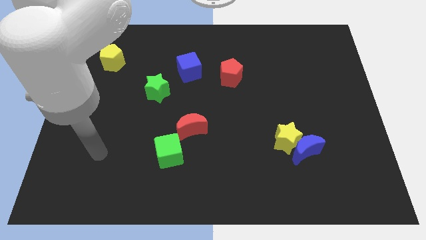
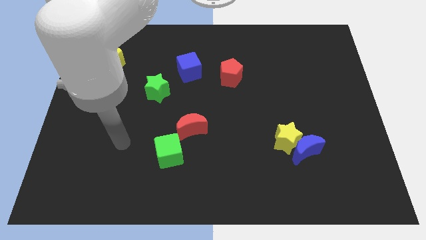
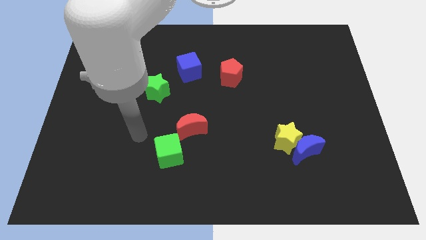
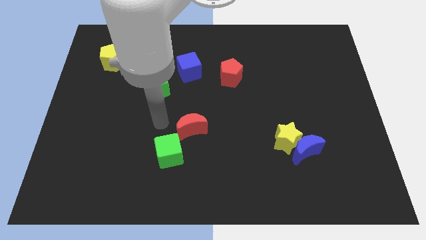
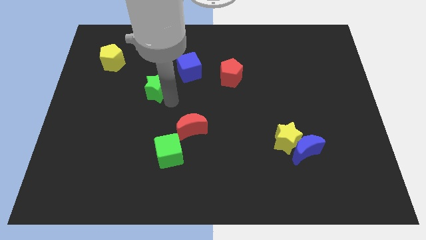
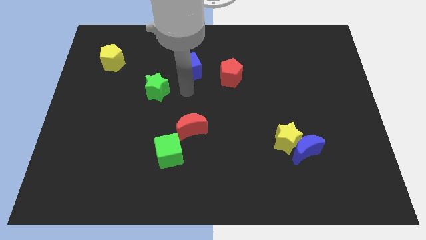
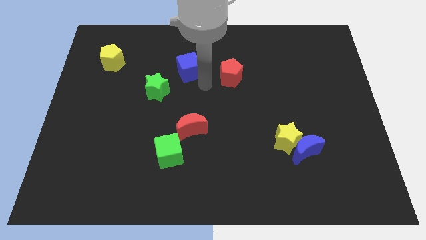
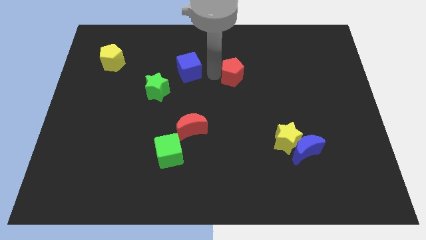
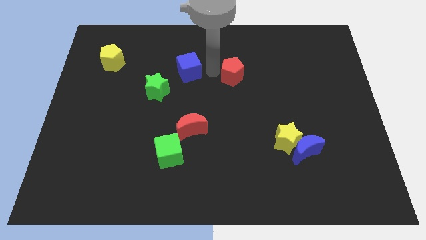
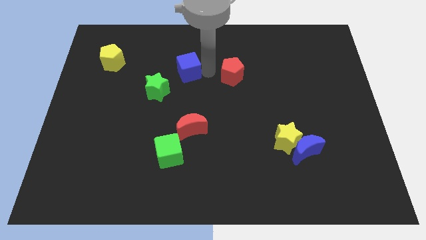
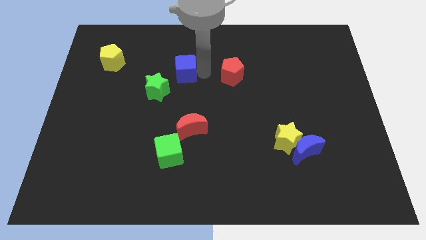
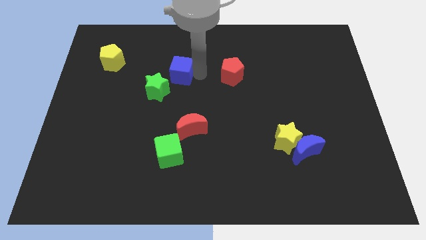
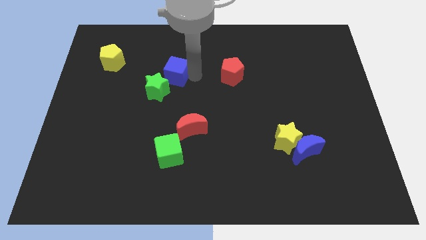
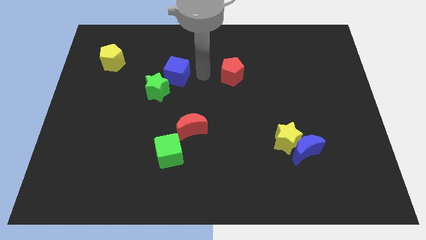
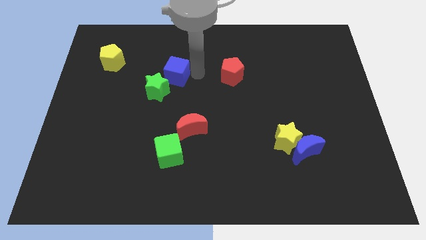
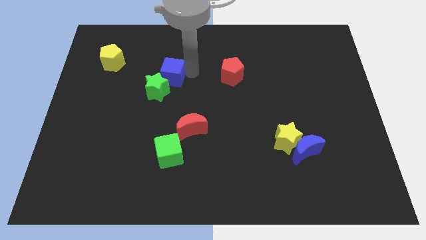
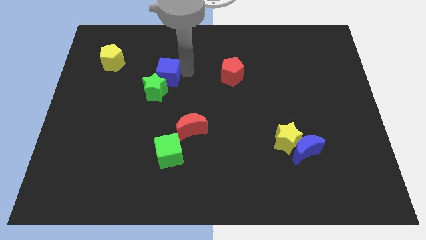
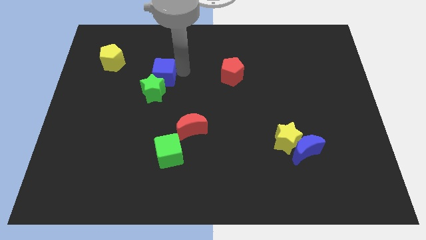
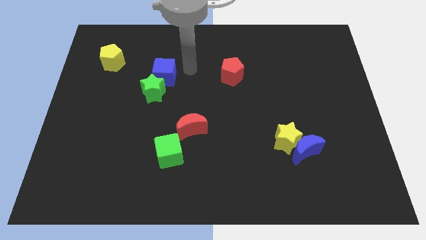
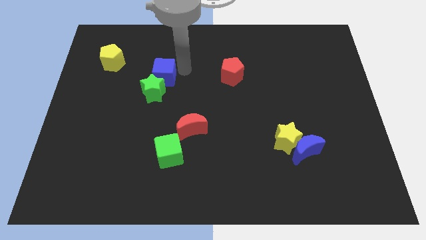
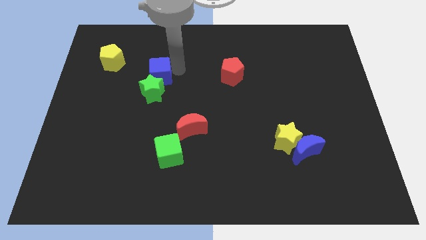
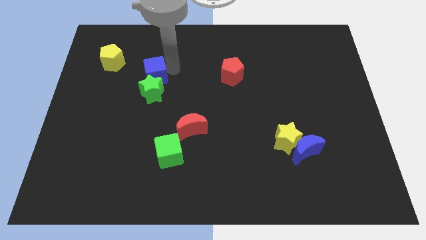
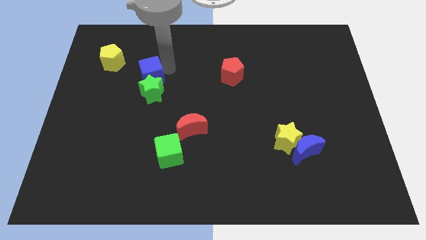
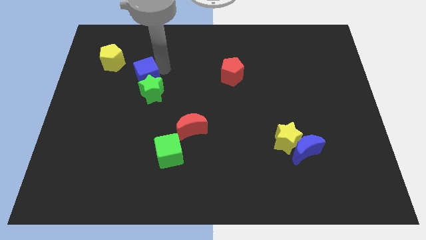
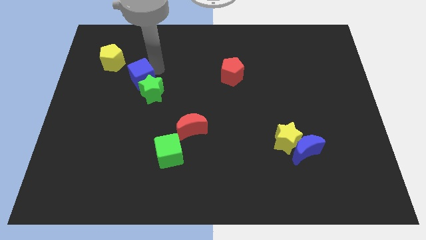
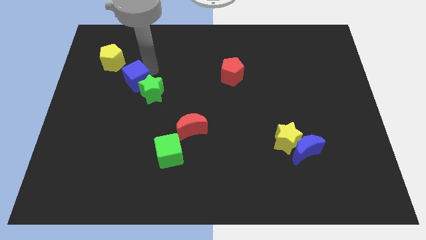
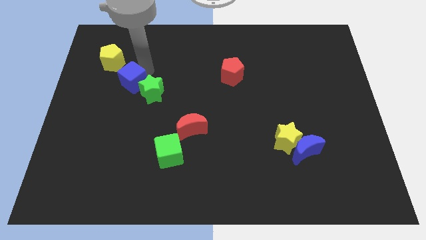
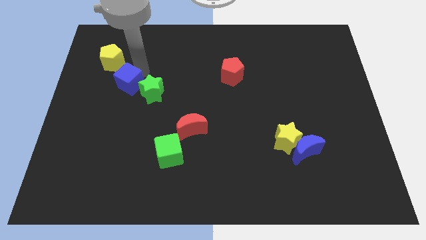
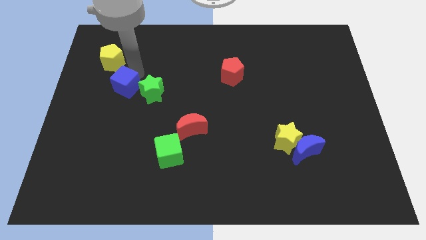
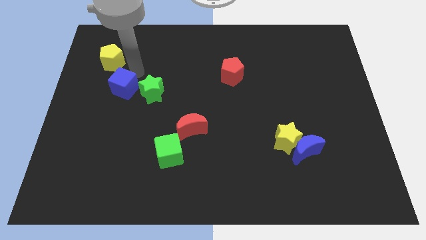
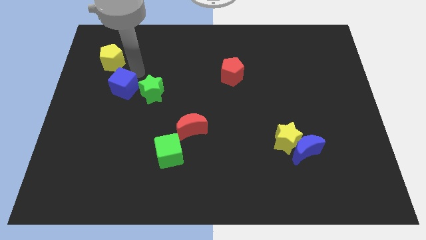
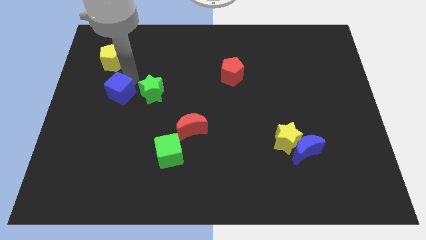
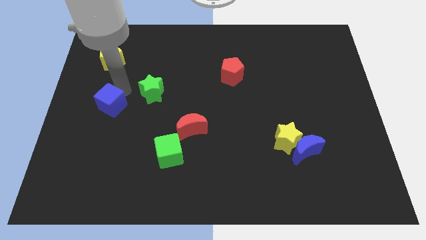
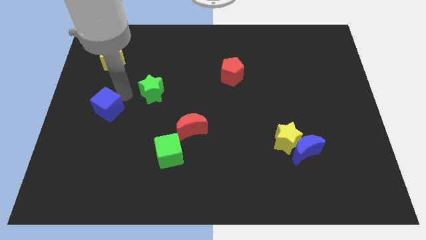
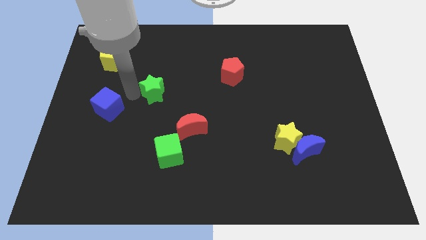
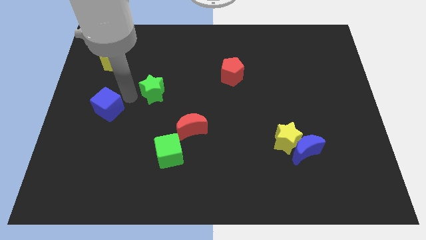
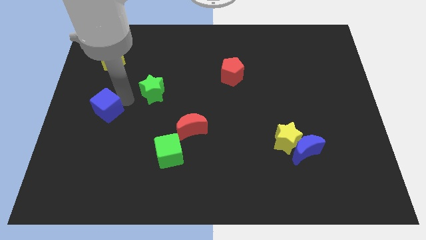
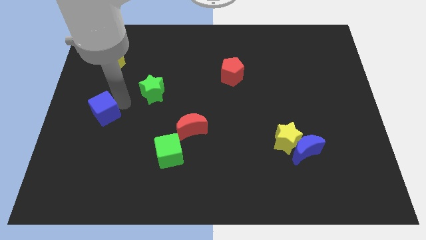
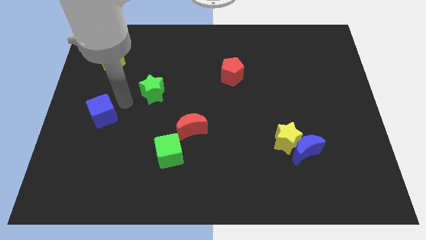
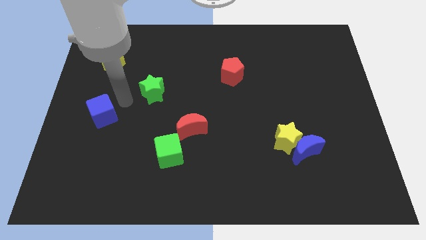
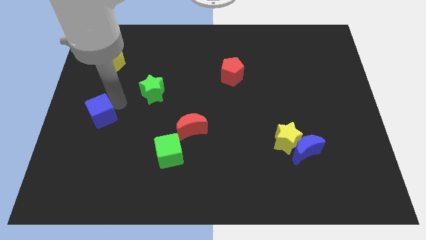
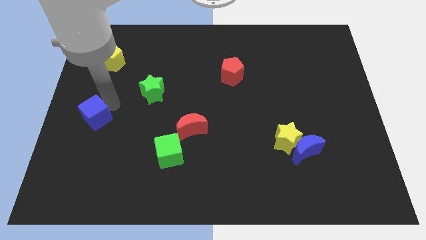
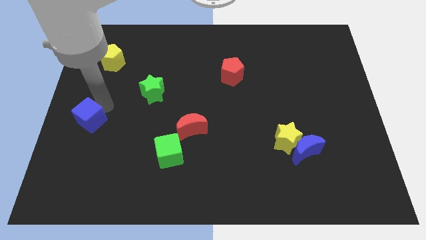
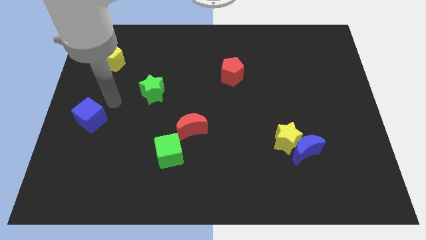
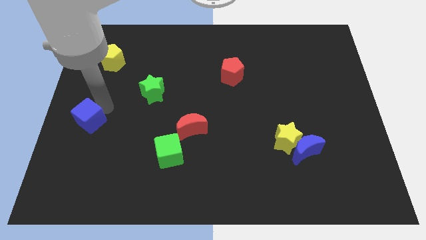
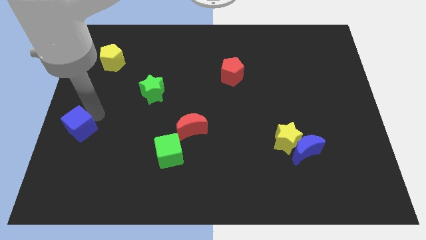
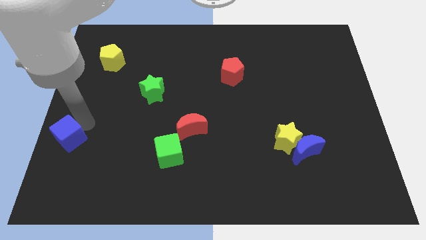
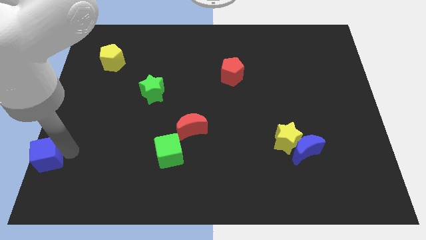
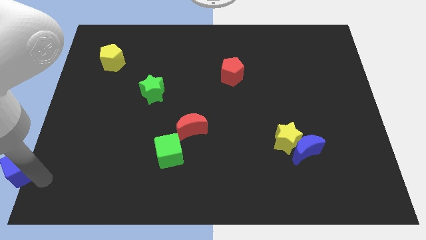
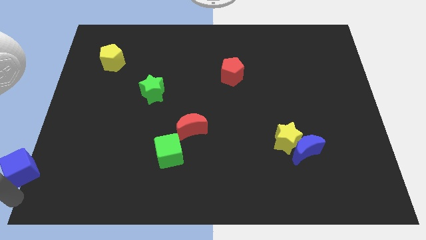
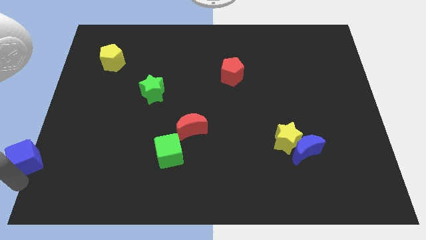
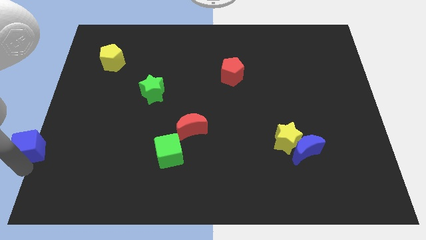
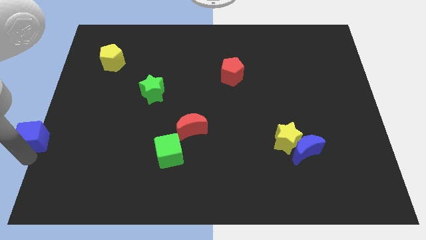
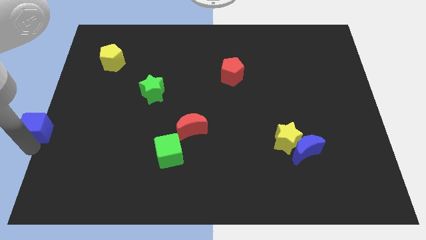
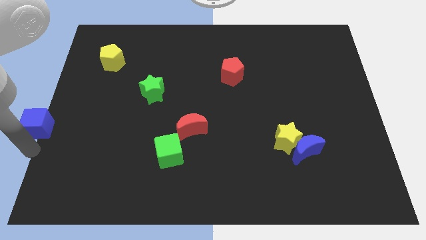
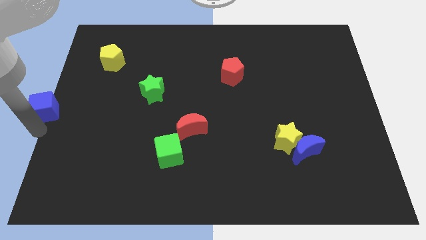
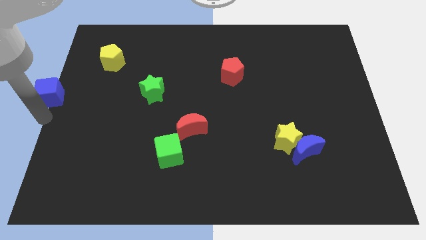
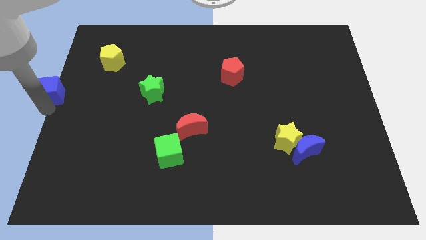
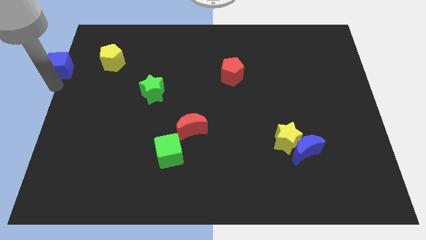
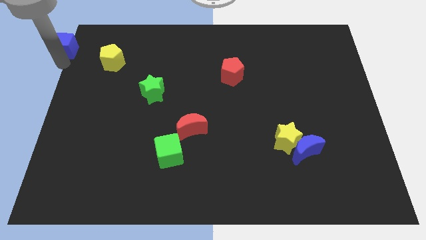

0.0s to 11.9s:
put the blue cube to the top left corner

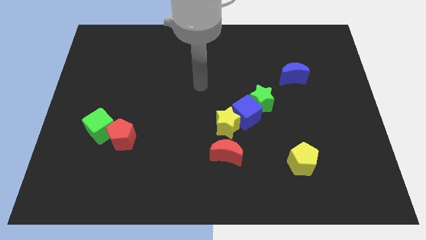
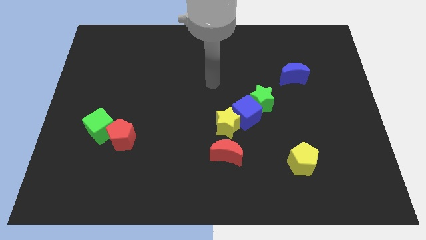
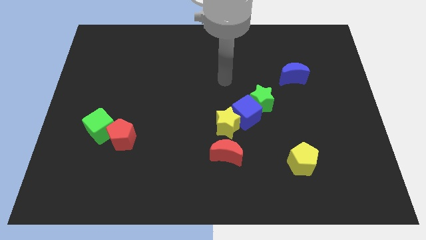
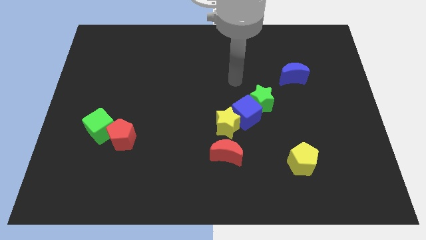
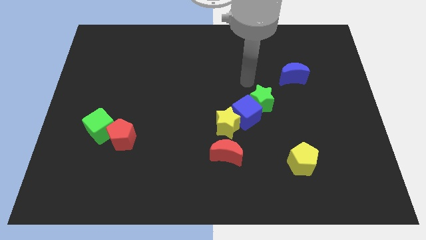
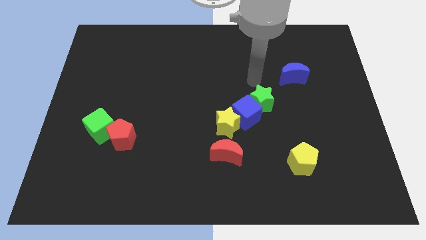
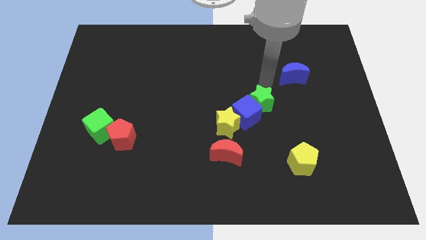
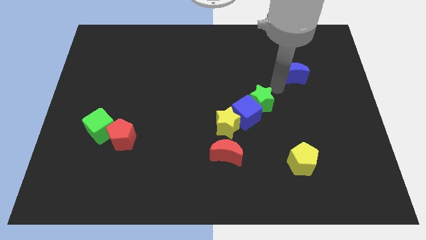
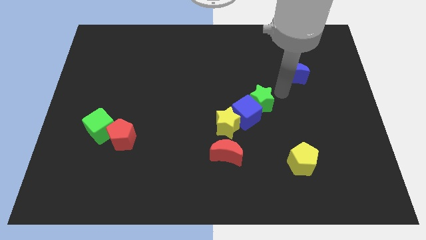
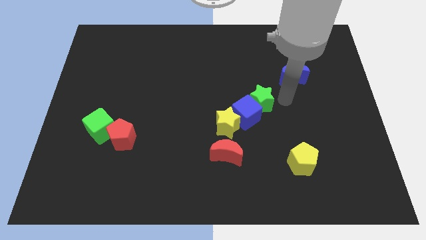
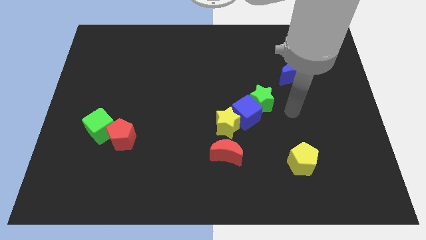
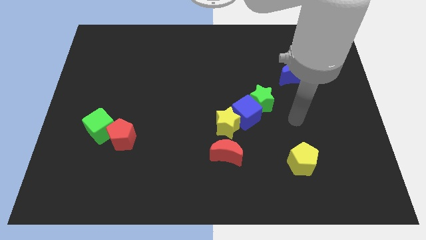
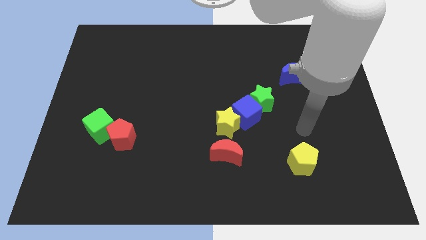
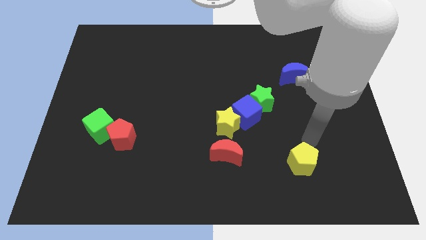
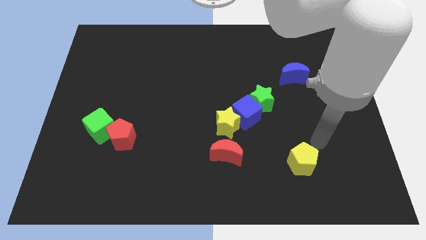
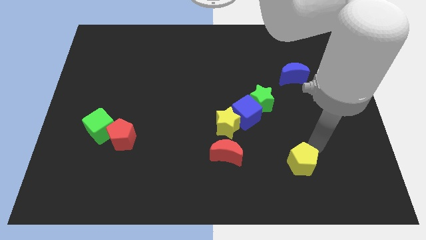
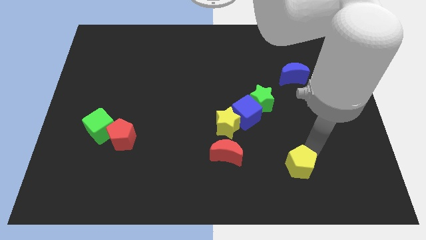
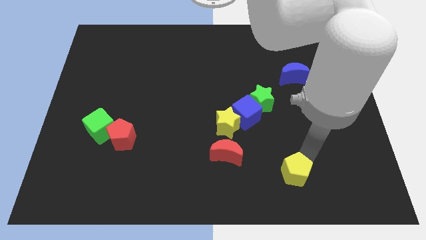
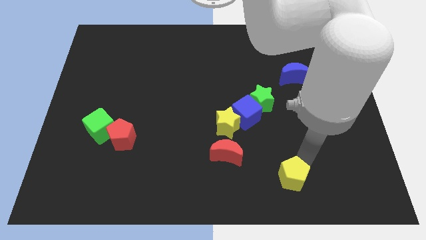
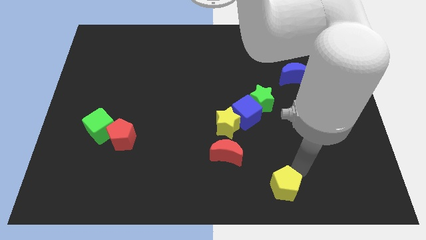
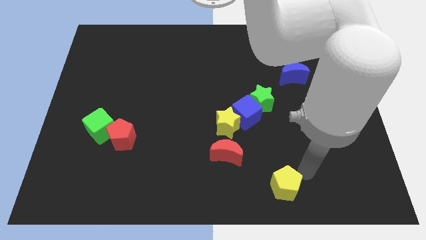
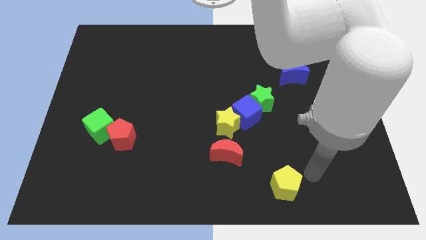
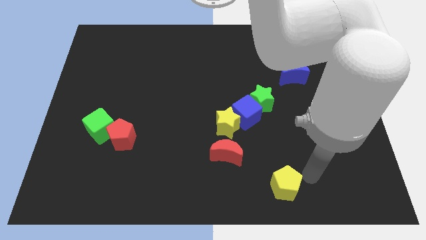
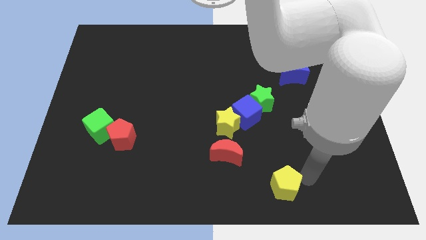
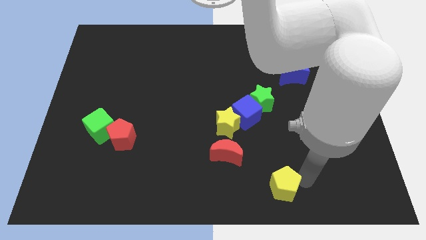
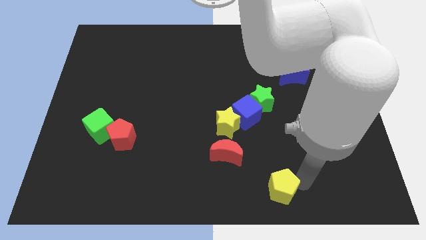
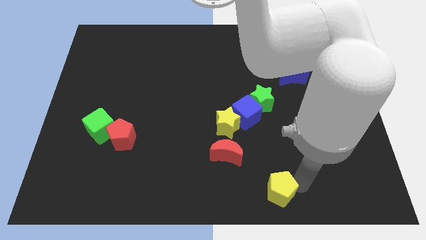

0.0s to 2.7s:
move the yellow pentagon to the bottom side
